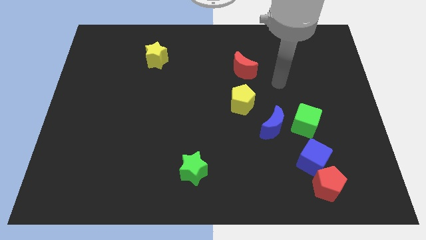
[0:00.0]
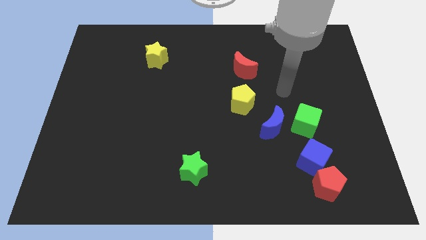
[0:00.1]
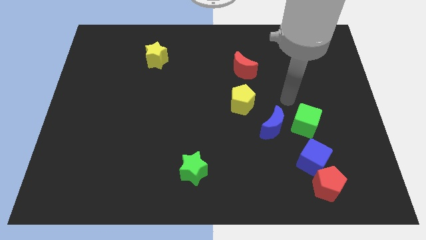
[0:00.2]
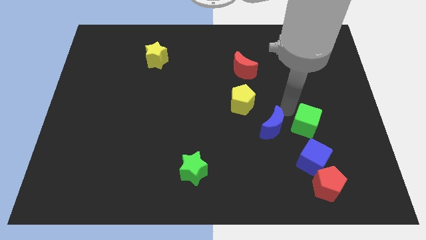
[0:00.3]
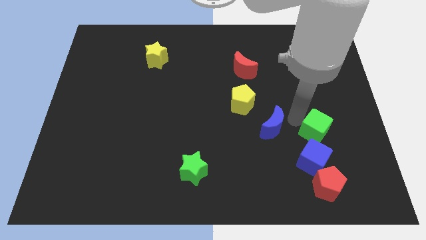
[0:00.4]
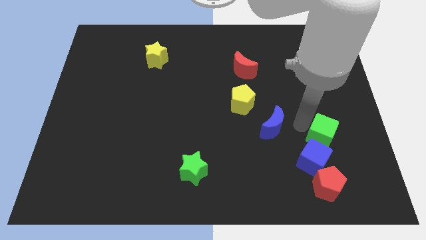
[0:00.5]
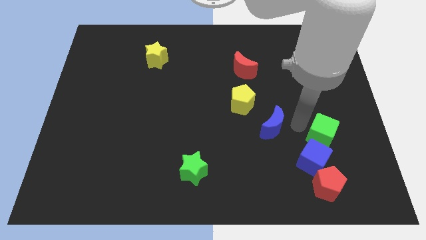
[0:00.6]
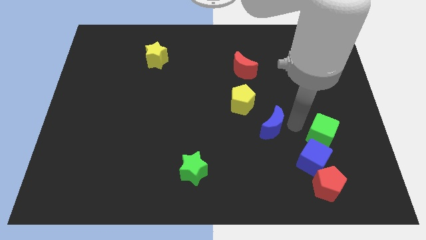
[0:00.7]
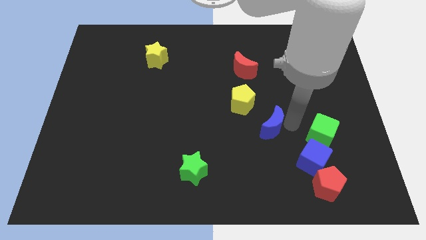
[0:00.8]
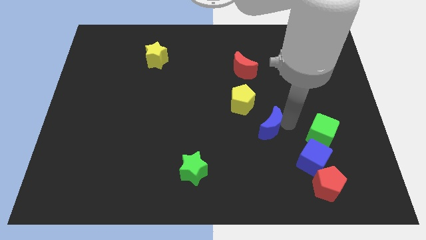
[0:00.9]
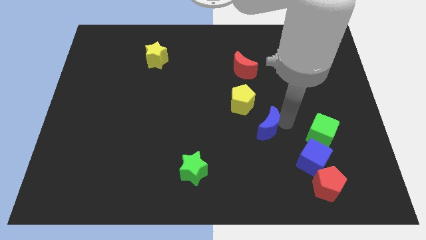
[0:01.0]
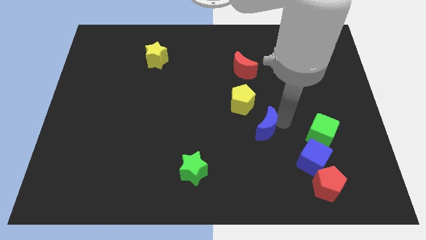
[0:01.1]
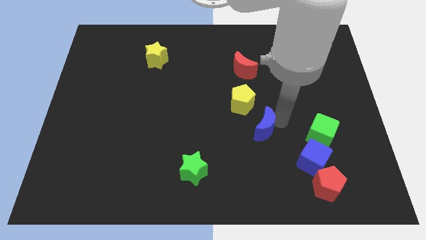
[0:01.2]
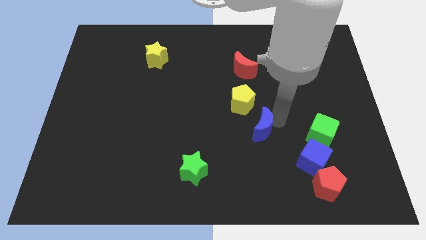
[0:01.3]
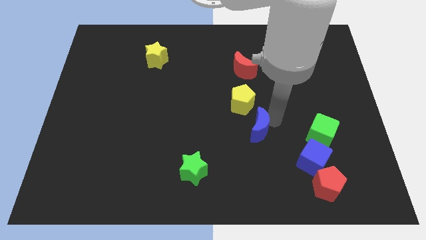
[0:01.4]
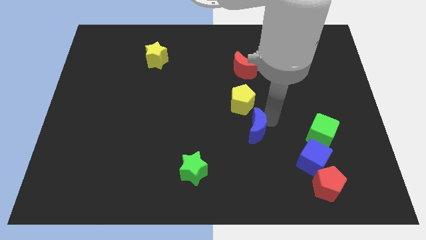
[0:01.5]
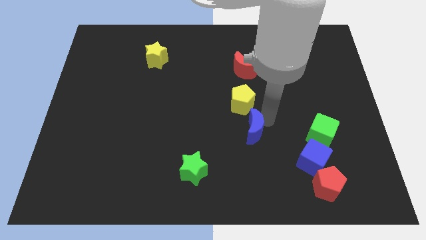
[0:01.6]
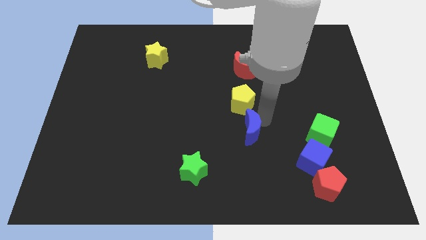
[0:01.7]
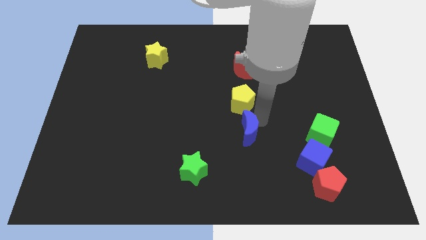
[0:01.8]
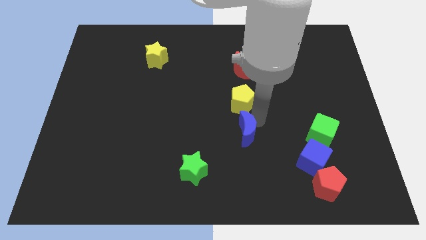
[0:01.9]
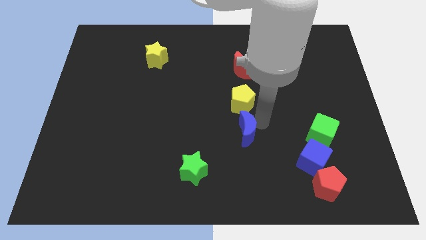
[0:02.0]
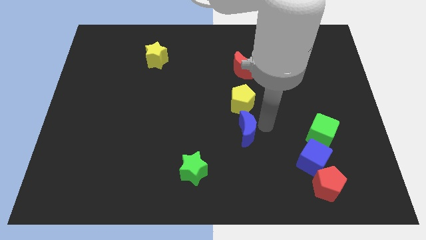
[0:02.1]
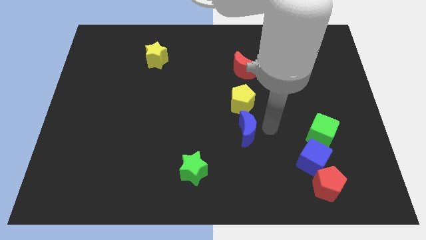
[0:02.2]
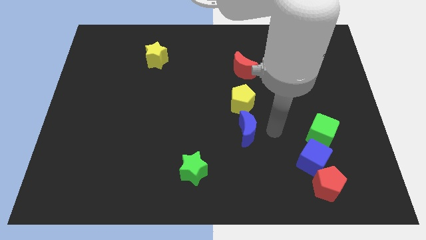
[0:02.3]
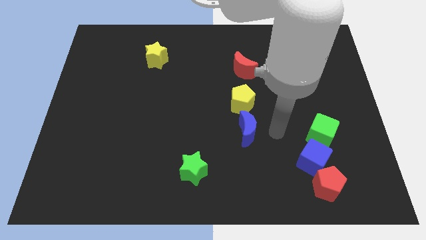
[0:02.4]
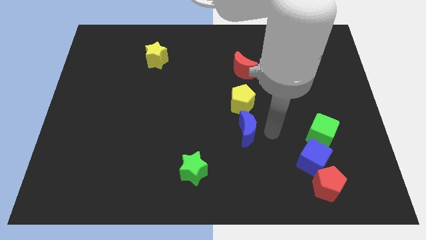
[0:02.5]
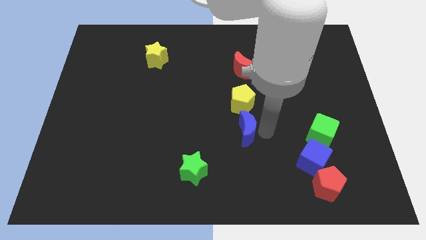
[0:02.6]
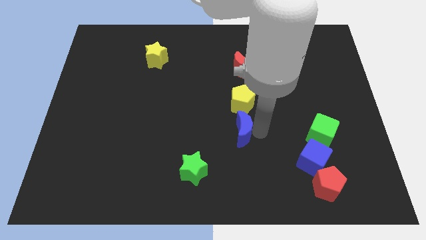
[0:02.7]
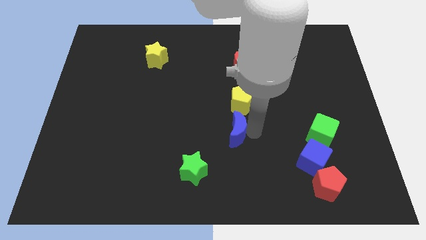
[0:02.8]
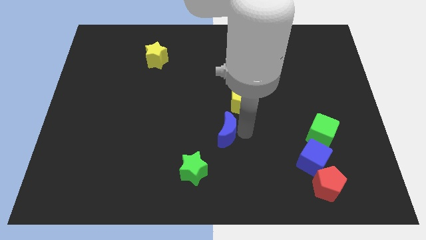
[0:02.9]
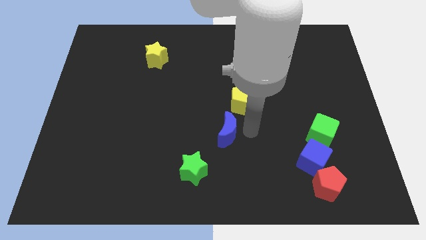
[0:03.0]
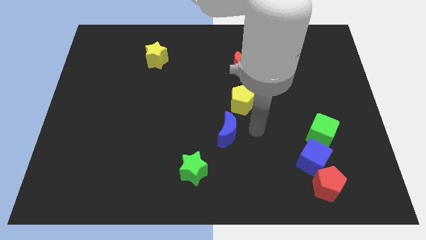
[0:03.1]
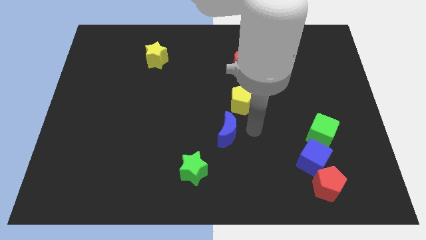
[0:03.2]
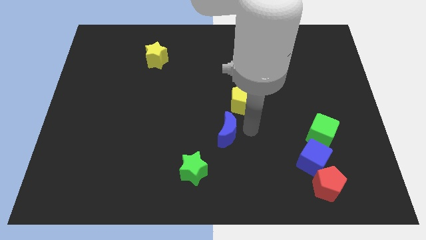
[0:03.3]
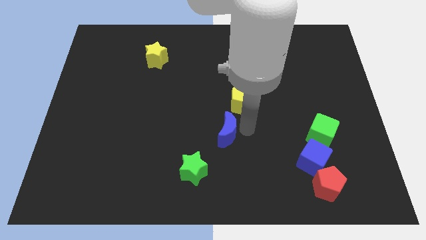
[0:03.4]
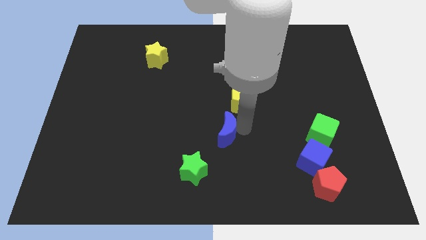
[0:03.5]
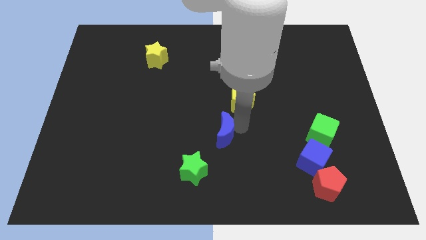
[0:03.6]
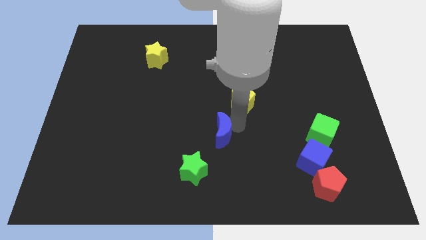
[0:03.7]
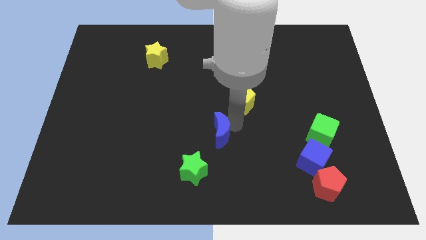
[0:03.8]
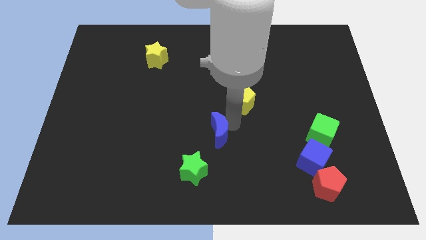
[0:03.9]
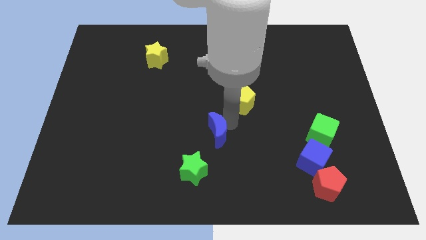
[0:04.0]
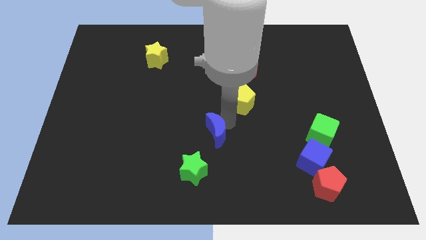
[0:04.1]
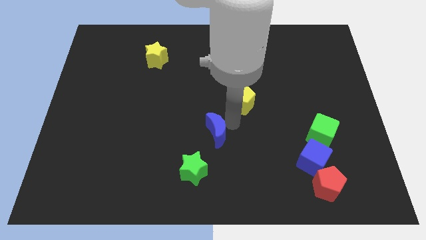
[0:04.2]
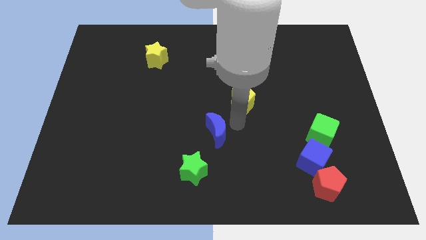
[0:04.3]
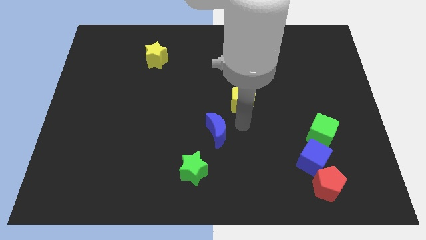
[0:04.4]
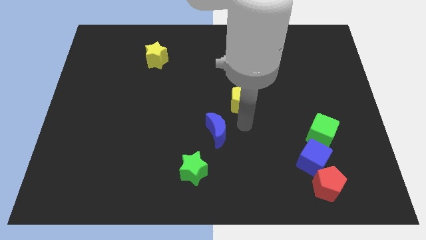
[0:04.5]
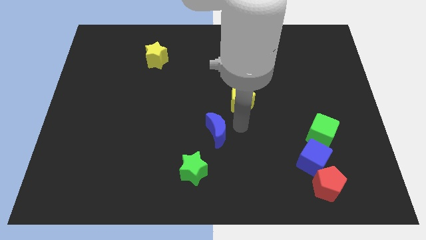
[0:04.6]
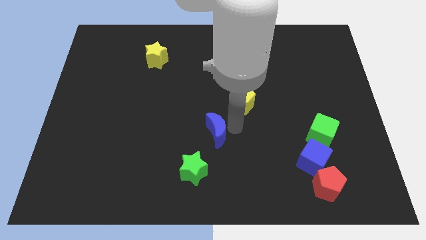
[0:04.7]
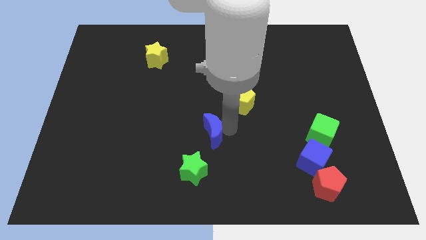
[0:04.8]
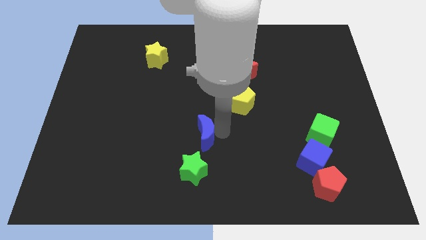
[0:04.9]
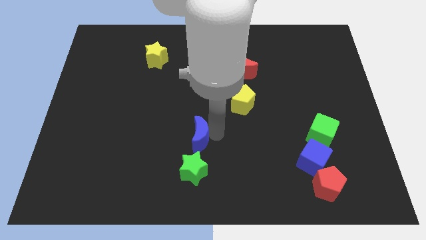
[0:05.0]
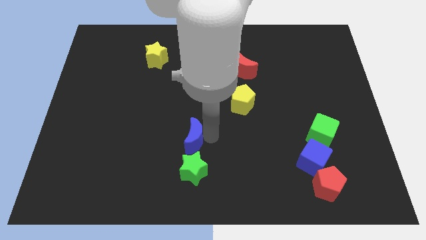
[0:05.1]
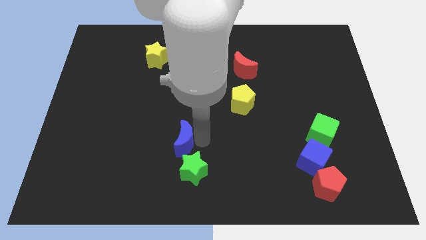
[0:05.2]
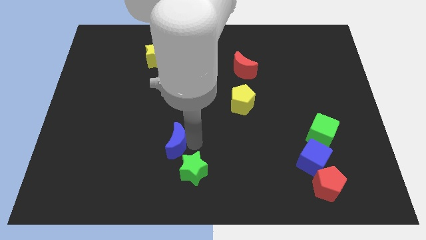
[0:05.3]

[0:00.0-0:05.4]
move the blue moon left

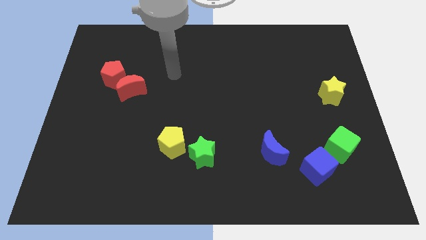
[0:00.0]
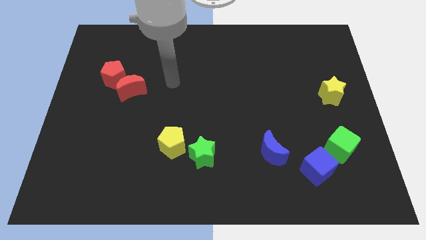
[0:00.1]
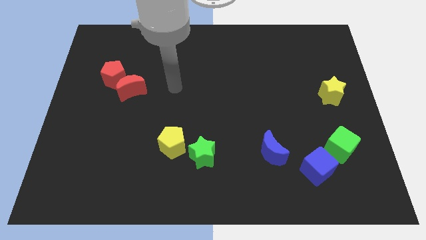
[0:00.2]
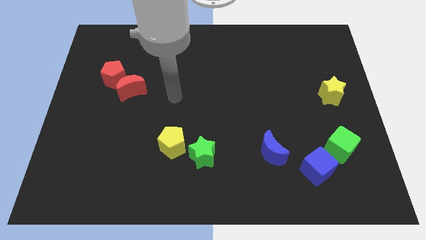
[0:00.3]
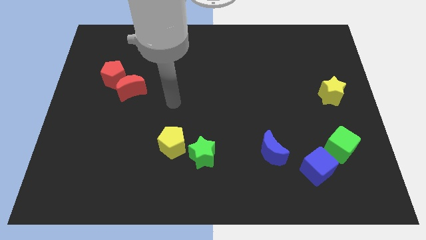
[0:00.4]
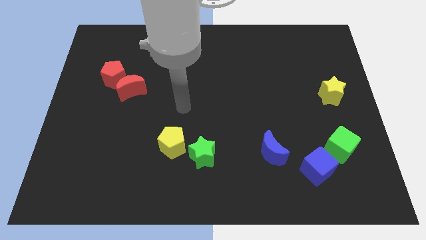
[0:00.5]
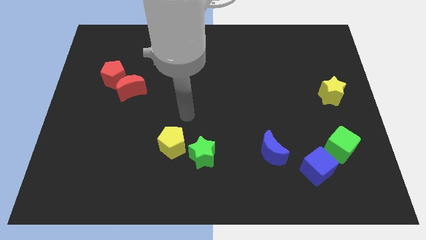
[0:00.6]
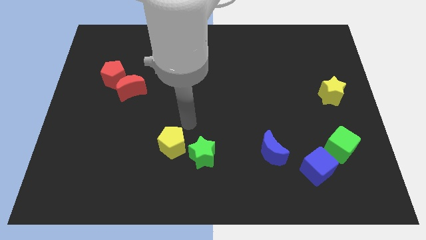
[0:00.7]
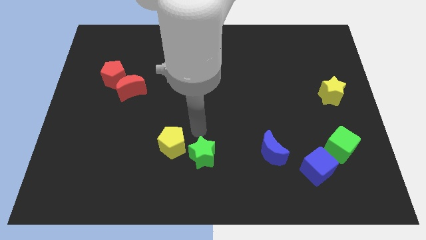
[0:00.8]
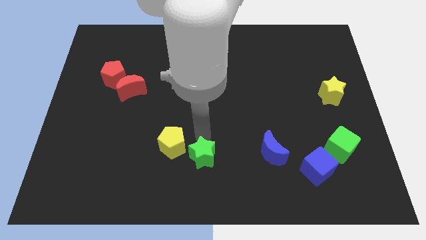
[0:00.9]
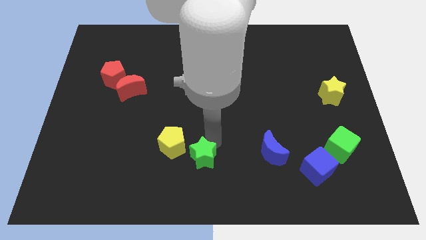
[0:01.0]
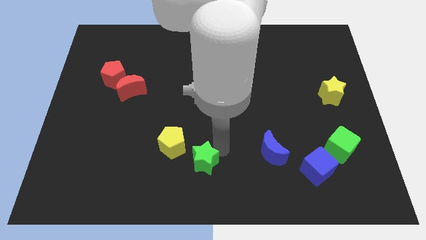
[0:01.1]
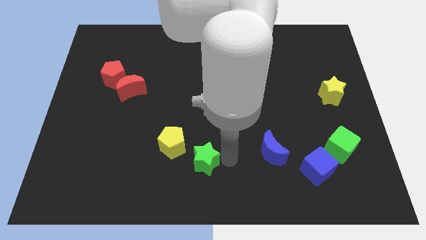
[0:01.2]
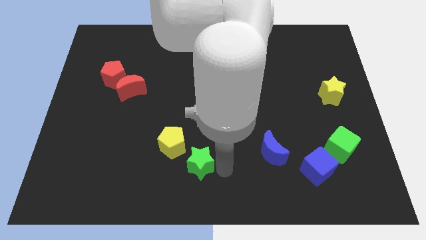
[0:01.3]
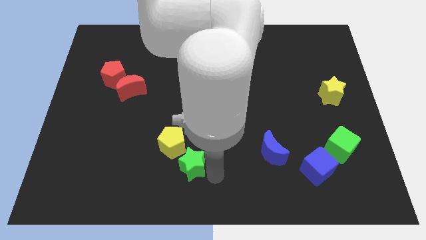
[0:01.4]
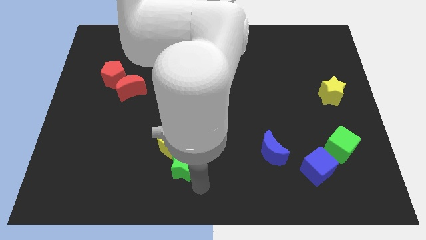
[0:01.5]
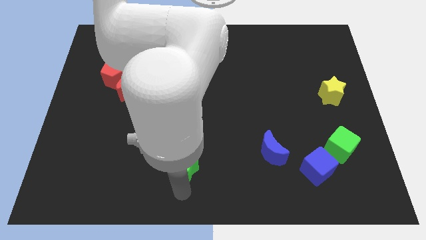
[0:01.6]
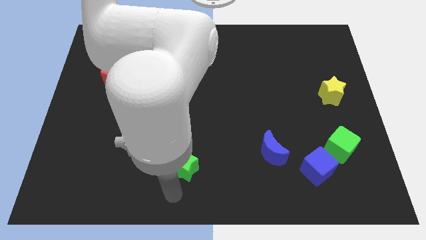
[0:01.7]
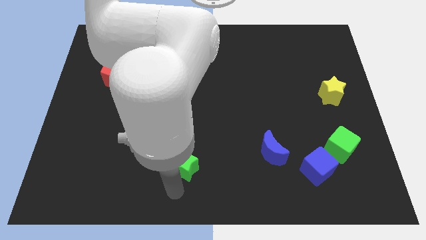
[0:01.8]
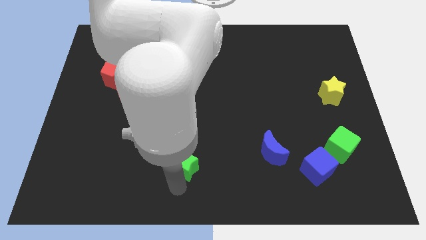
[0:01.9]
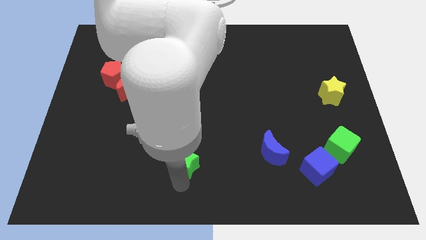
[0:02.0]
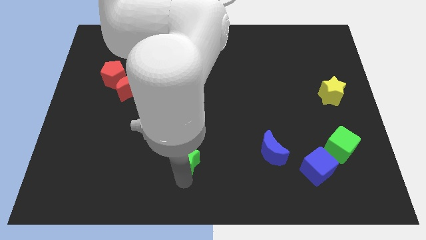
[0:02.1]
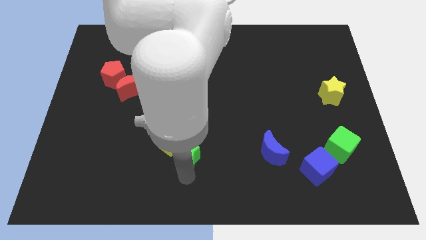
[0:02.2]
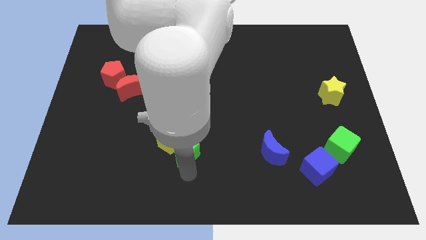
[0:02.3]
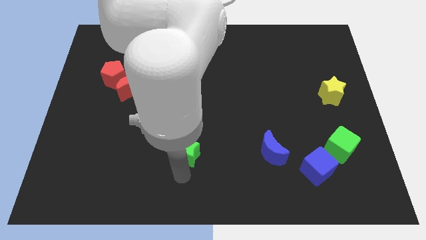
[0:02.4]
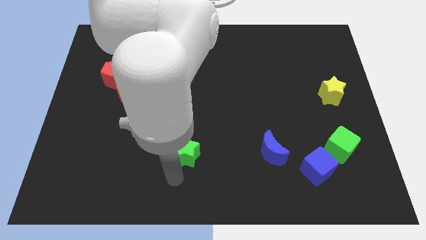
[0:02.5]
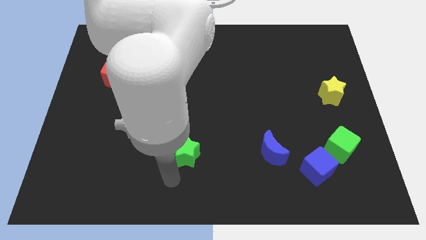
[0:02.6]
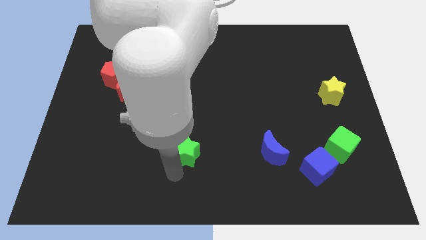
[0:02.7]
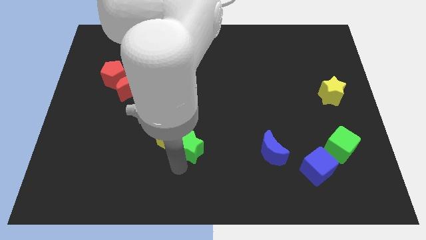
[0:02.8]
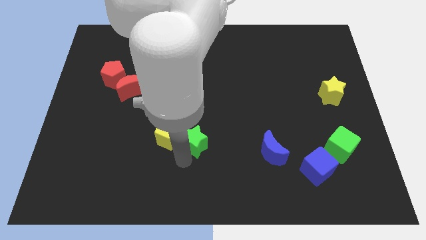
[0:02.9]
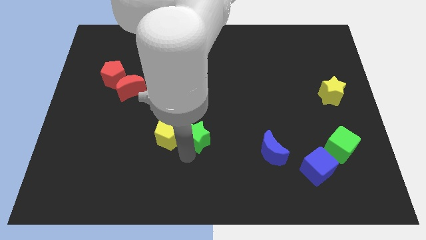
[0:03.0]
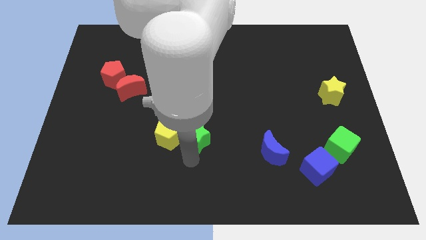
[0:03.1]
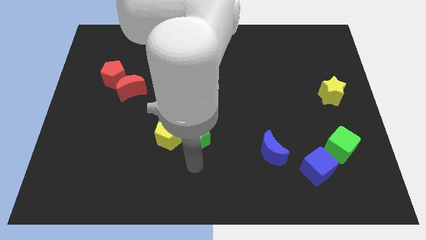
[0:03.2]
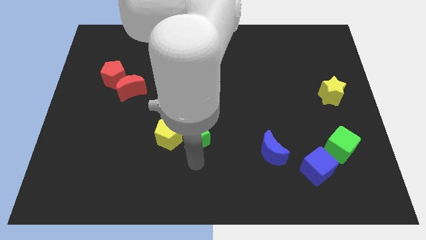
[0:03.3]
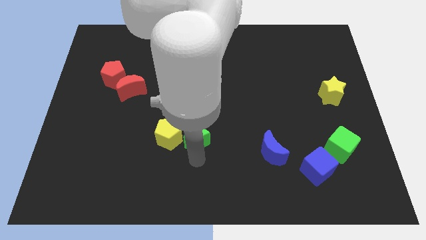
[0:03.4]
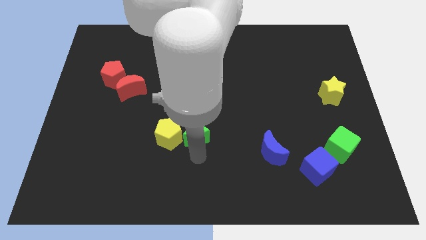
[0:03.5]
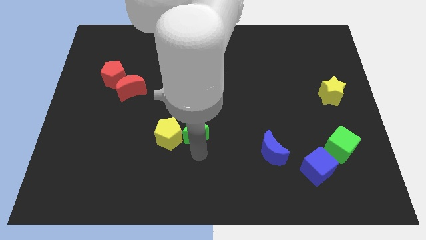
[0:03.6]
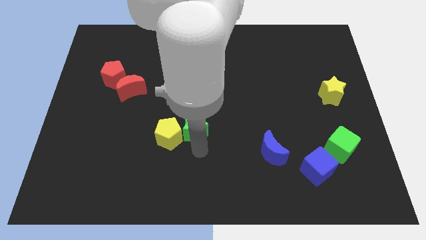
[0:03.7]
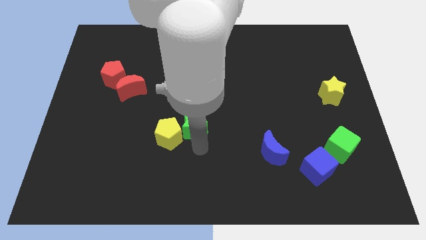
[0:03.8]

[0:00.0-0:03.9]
slightly slide the green star upwards
